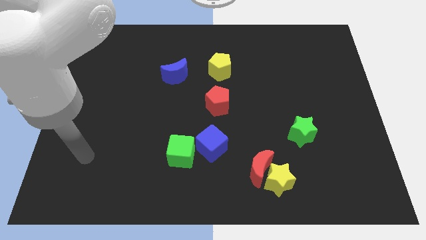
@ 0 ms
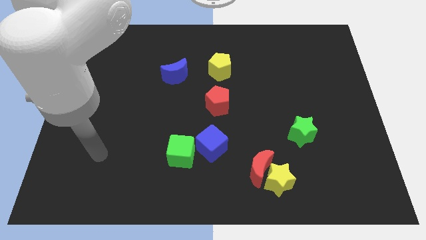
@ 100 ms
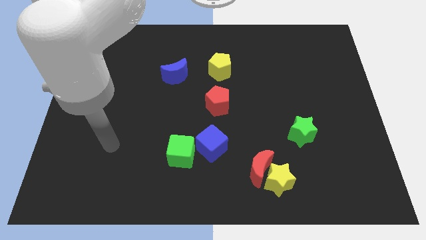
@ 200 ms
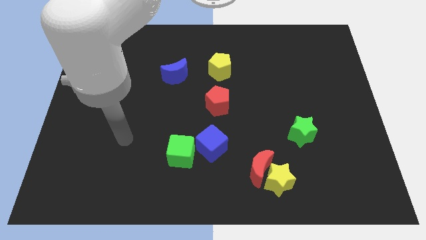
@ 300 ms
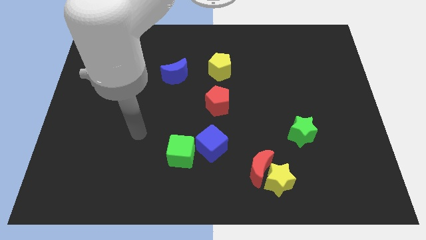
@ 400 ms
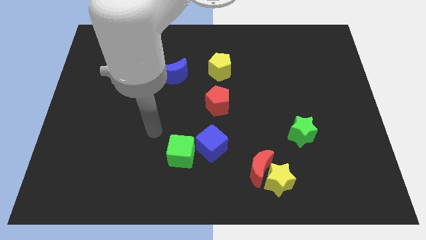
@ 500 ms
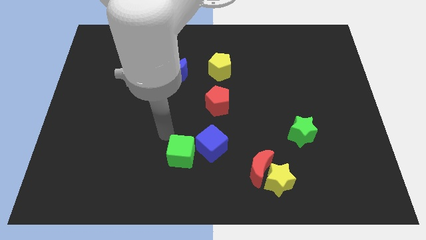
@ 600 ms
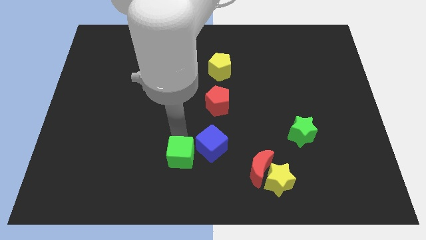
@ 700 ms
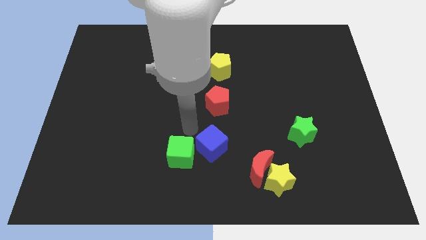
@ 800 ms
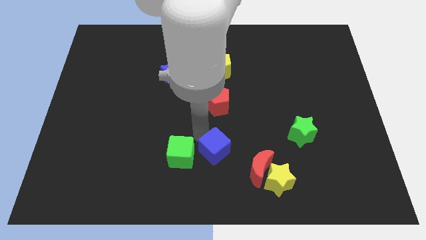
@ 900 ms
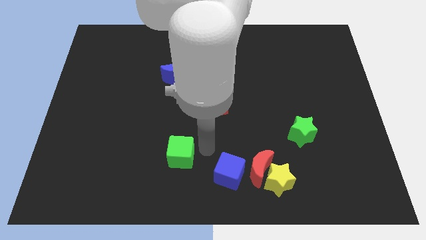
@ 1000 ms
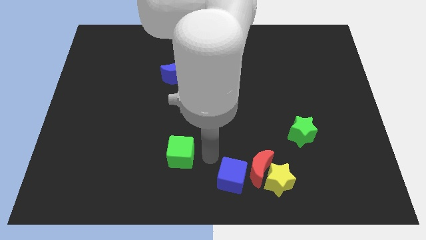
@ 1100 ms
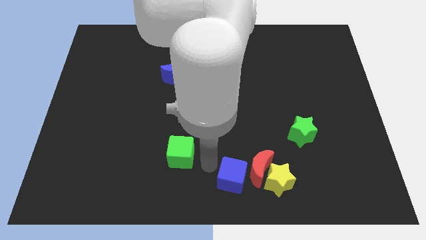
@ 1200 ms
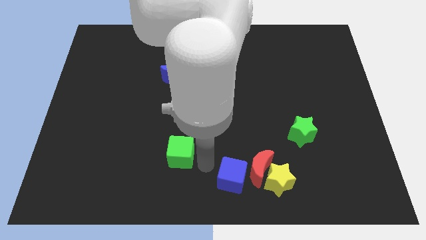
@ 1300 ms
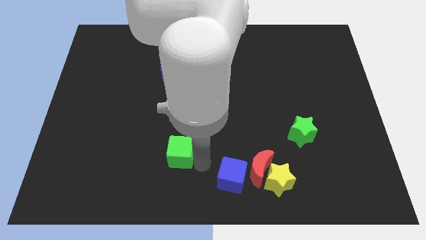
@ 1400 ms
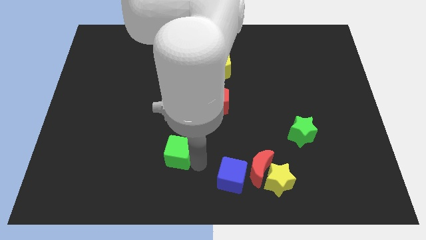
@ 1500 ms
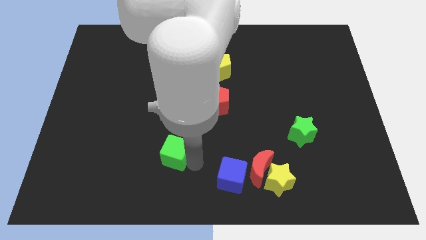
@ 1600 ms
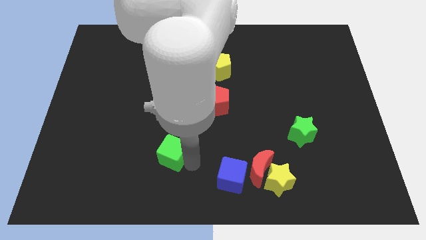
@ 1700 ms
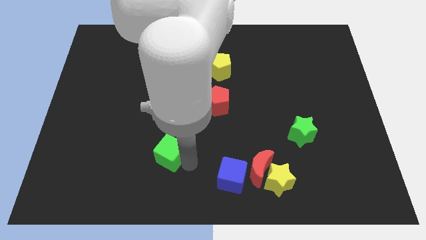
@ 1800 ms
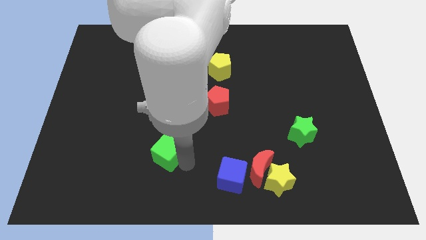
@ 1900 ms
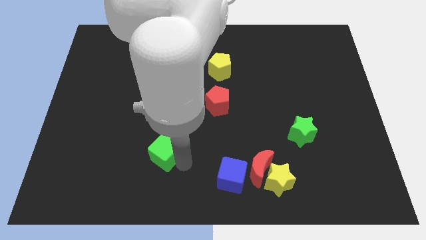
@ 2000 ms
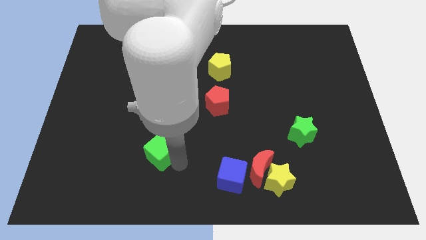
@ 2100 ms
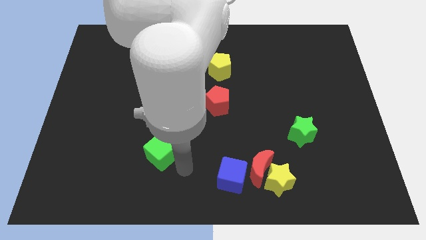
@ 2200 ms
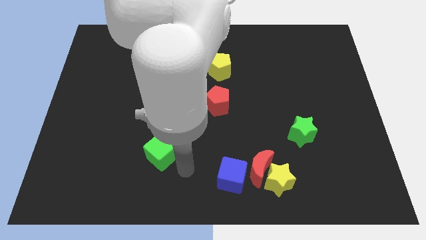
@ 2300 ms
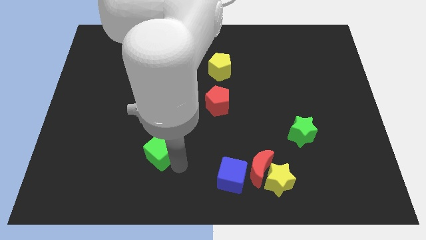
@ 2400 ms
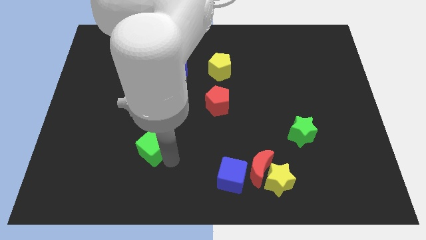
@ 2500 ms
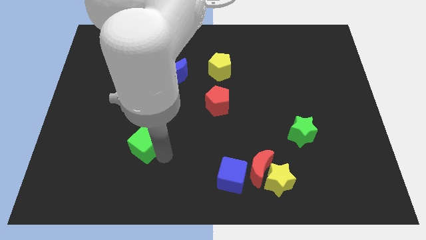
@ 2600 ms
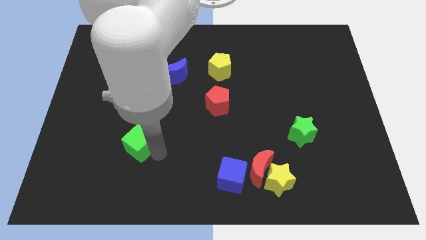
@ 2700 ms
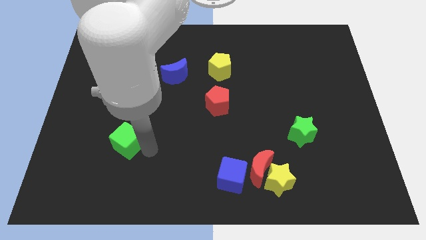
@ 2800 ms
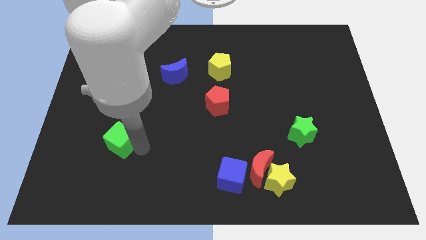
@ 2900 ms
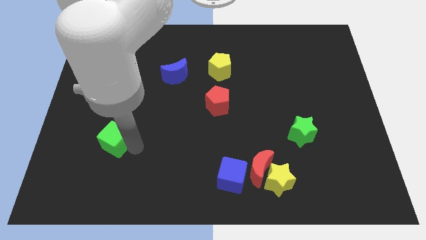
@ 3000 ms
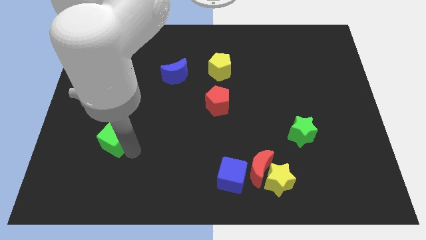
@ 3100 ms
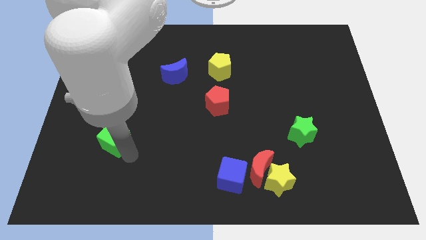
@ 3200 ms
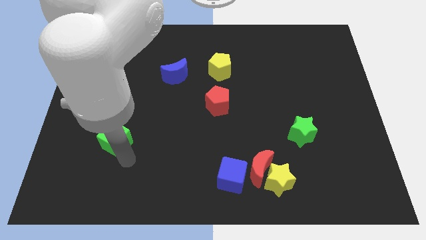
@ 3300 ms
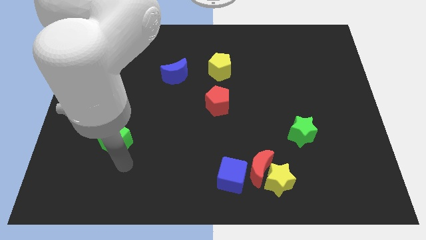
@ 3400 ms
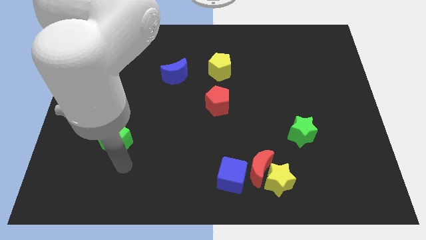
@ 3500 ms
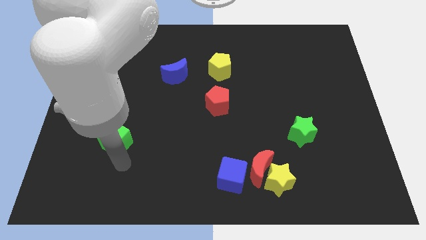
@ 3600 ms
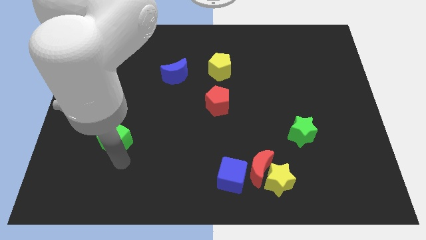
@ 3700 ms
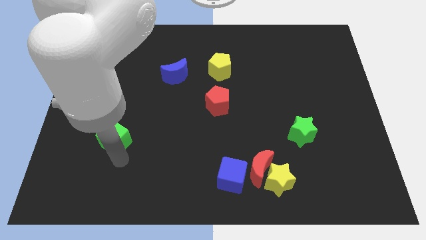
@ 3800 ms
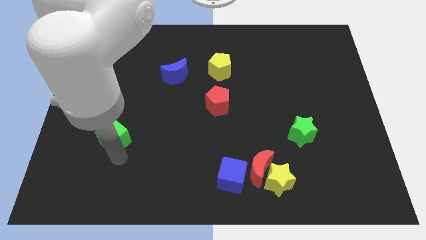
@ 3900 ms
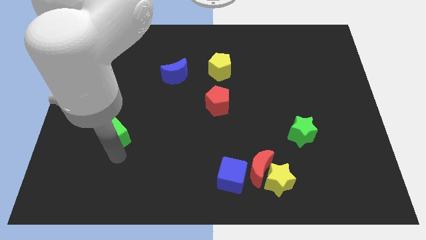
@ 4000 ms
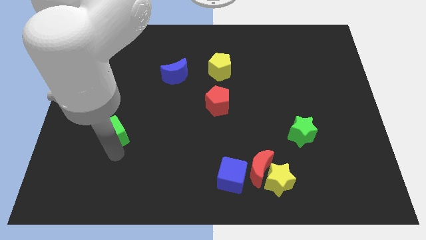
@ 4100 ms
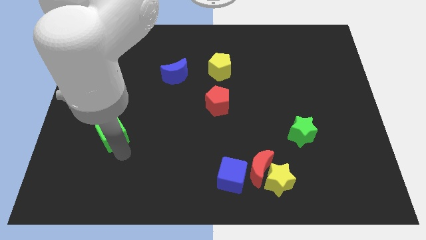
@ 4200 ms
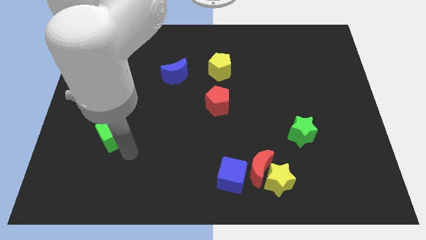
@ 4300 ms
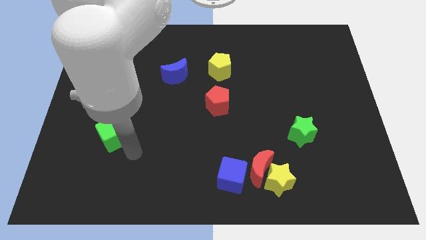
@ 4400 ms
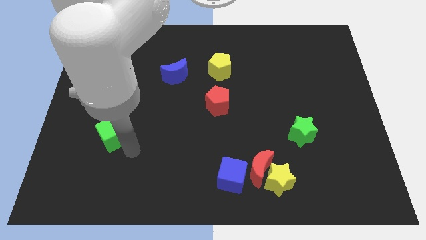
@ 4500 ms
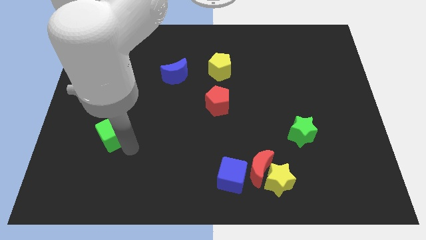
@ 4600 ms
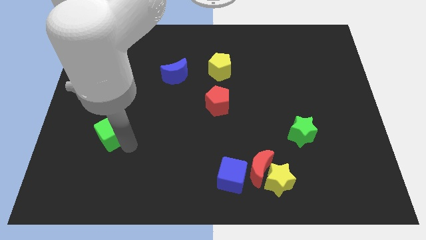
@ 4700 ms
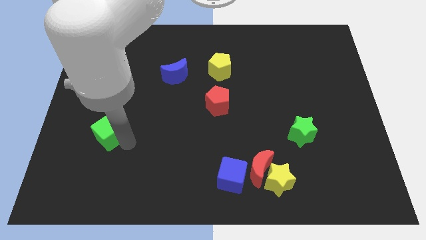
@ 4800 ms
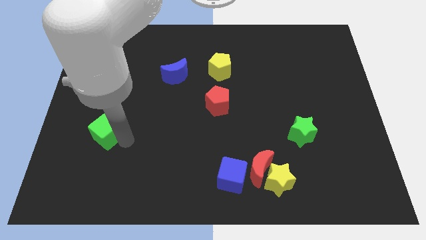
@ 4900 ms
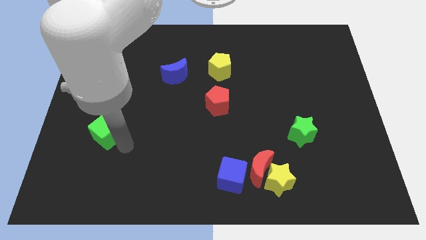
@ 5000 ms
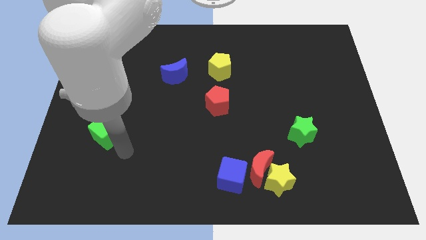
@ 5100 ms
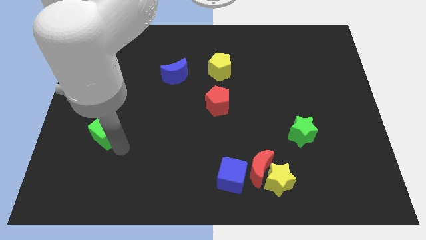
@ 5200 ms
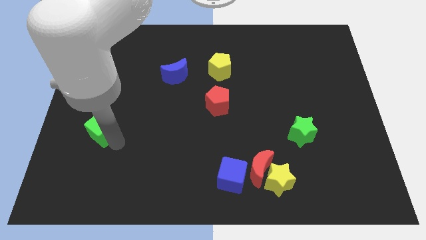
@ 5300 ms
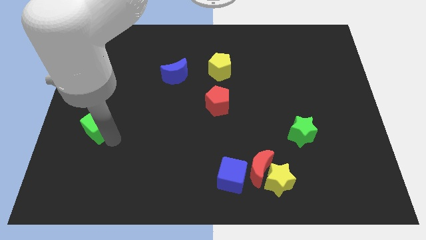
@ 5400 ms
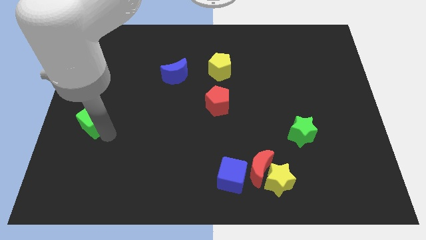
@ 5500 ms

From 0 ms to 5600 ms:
slide the green cube to the center left

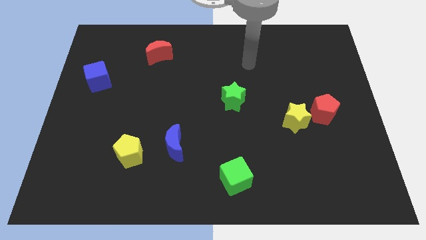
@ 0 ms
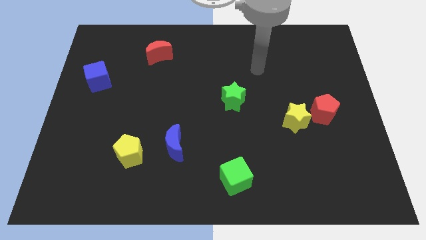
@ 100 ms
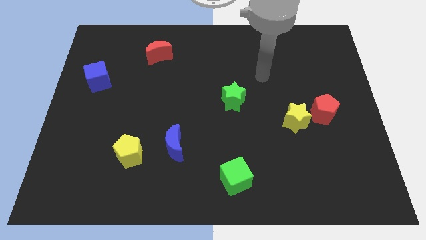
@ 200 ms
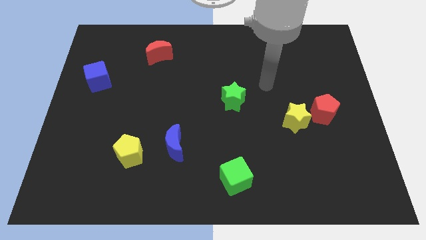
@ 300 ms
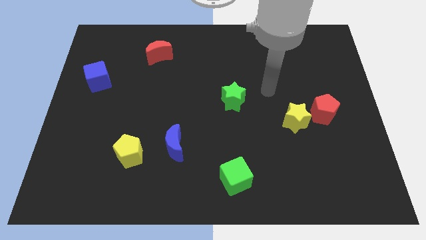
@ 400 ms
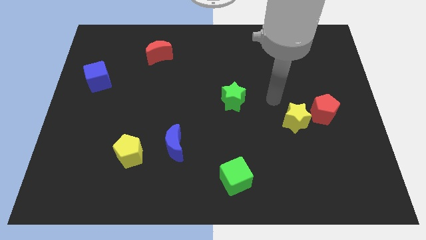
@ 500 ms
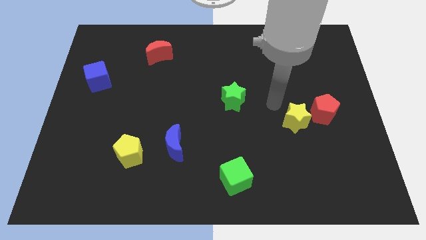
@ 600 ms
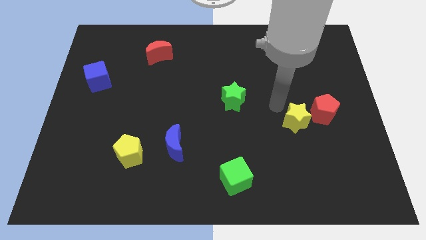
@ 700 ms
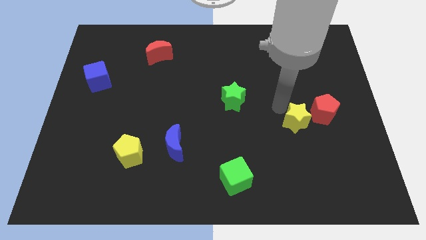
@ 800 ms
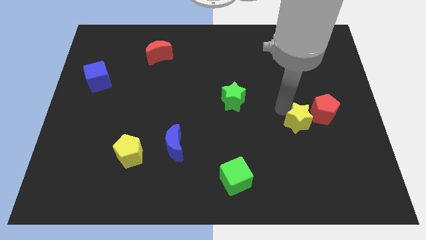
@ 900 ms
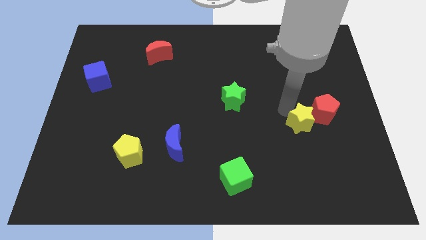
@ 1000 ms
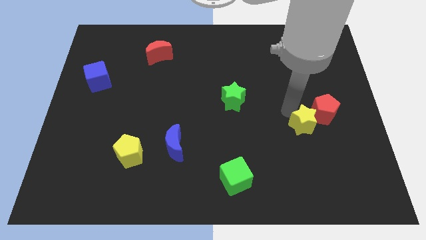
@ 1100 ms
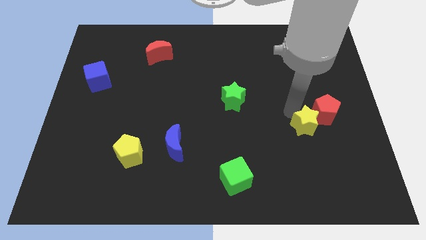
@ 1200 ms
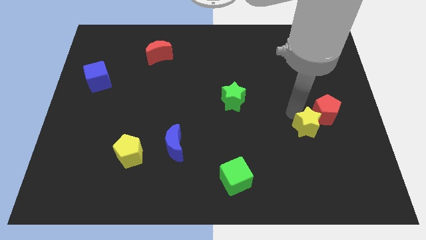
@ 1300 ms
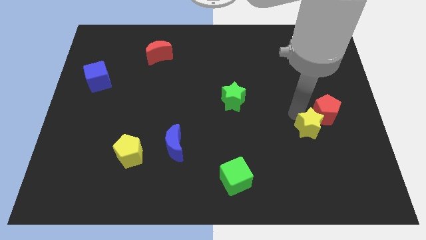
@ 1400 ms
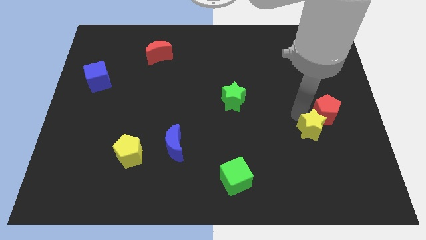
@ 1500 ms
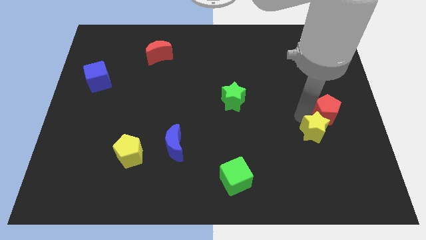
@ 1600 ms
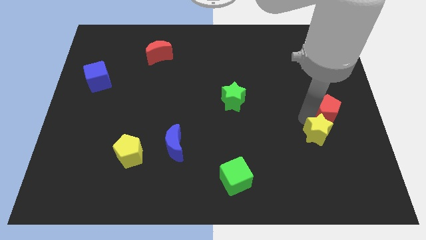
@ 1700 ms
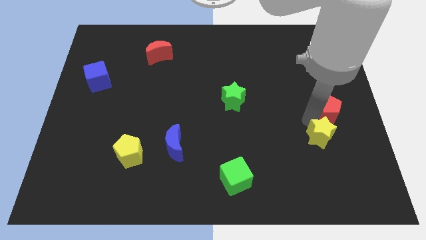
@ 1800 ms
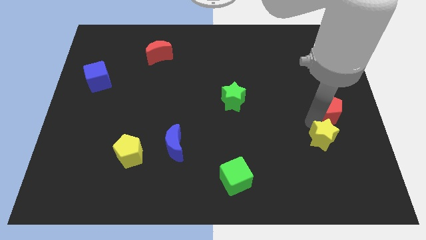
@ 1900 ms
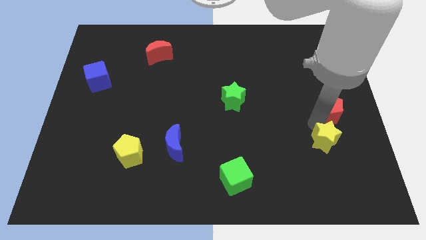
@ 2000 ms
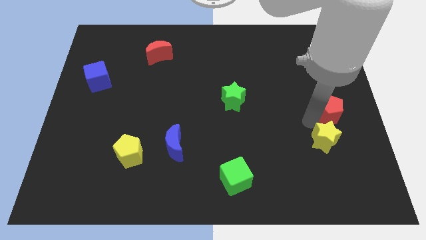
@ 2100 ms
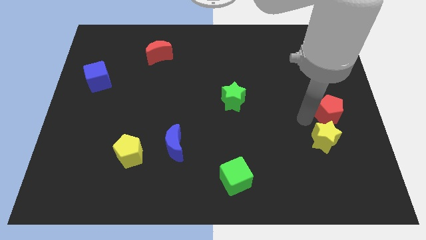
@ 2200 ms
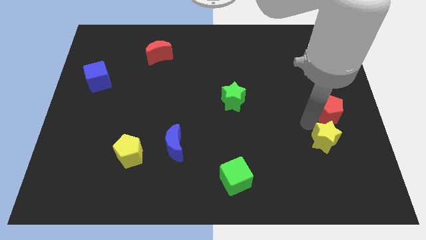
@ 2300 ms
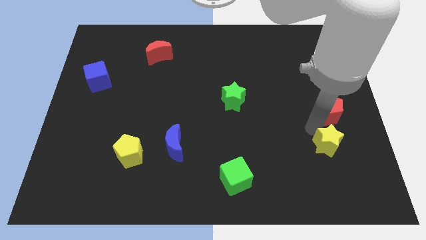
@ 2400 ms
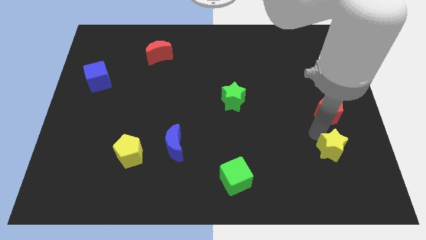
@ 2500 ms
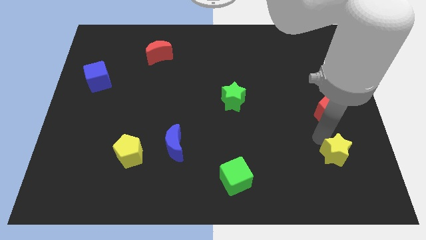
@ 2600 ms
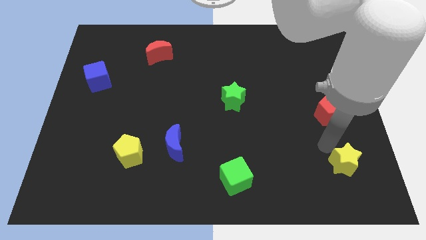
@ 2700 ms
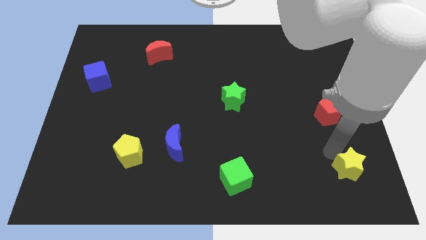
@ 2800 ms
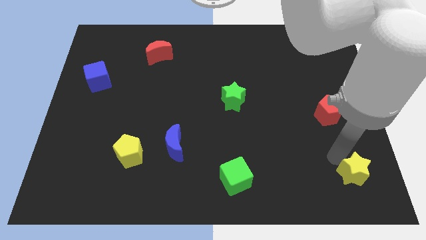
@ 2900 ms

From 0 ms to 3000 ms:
push the yellow star to the bottom right corner
